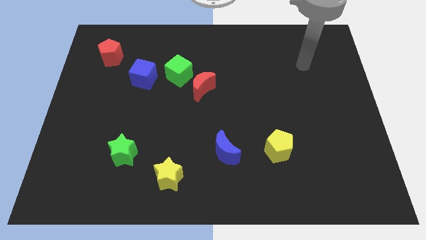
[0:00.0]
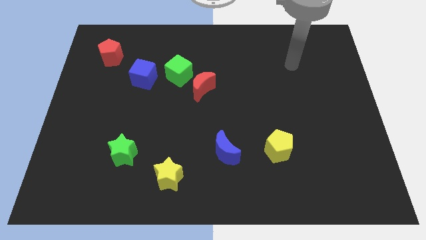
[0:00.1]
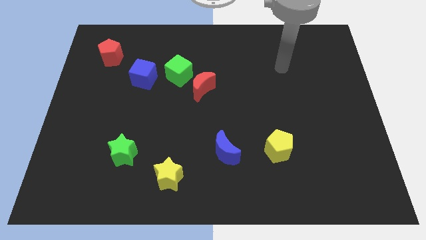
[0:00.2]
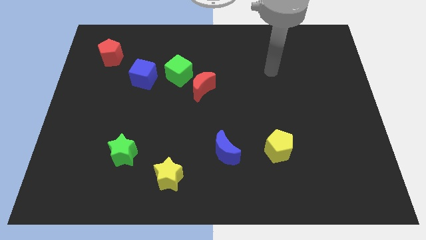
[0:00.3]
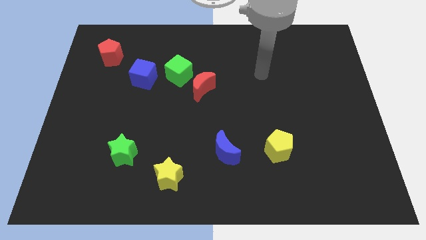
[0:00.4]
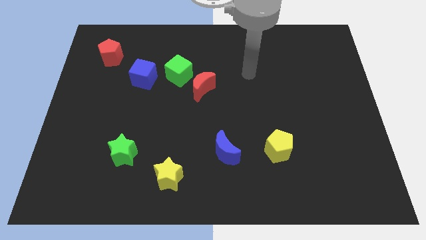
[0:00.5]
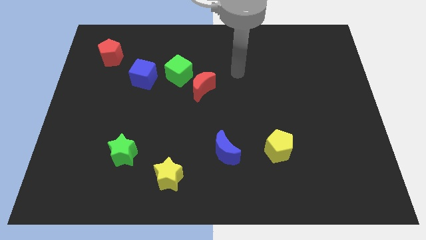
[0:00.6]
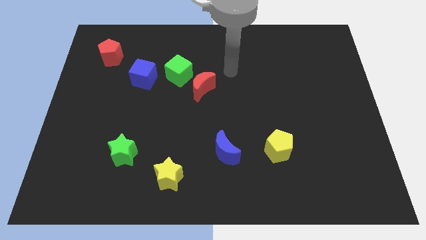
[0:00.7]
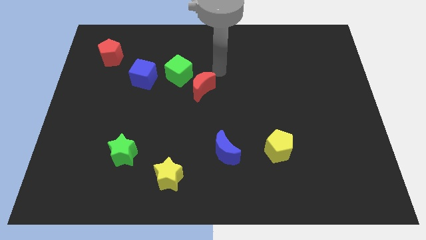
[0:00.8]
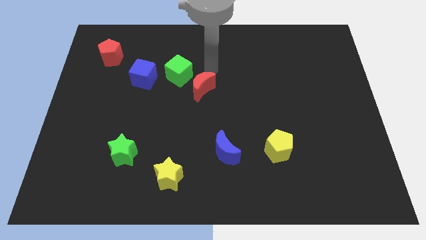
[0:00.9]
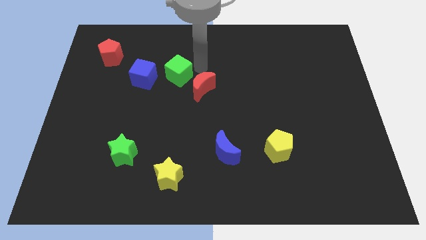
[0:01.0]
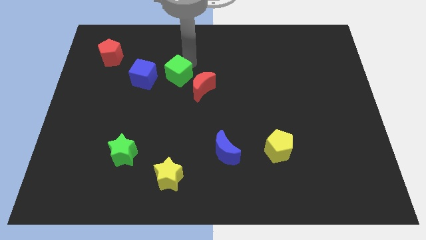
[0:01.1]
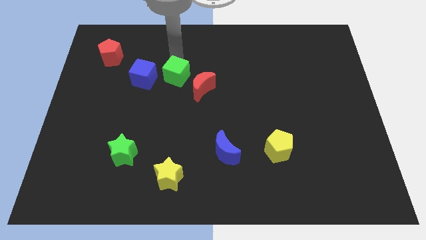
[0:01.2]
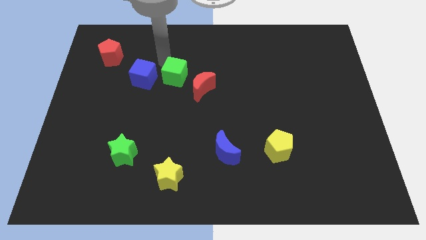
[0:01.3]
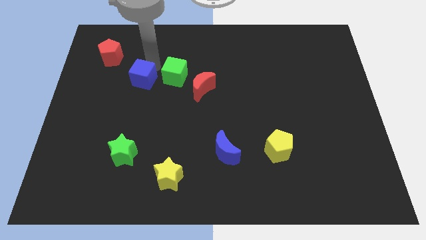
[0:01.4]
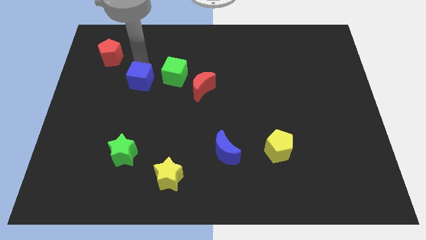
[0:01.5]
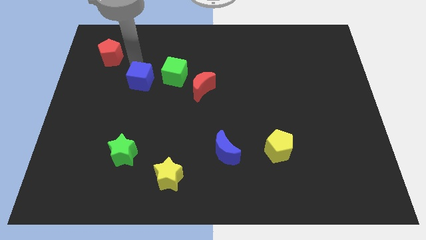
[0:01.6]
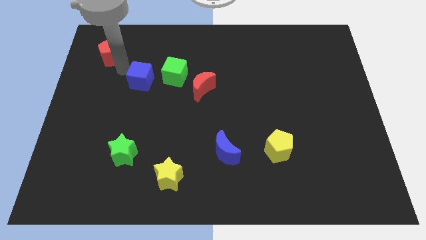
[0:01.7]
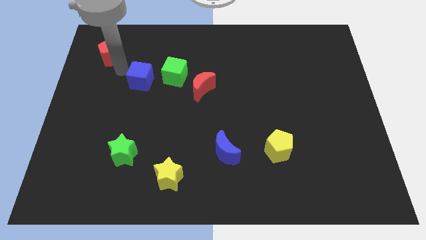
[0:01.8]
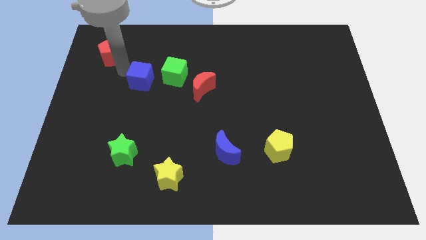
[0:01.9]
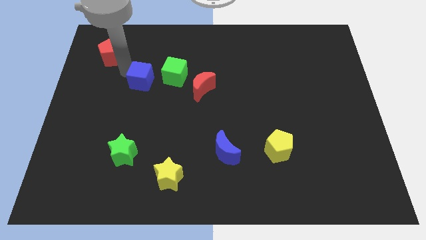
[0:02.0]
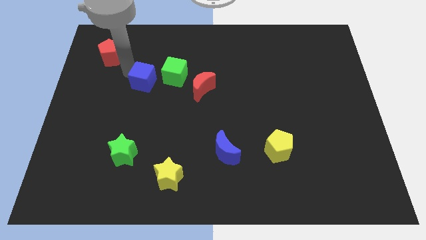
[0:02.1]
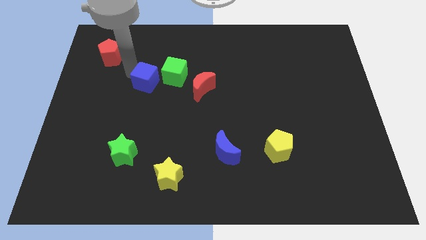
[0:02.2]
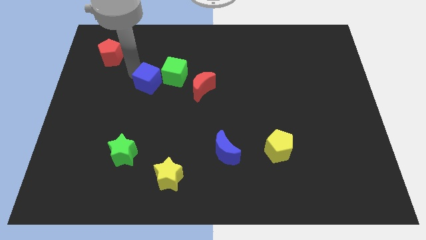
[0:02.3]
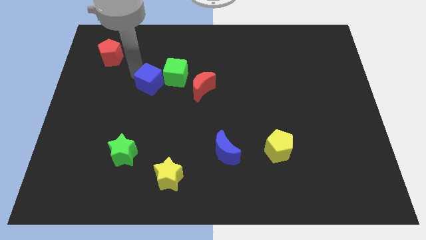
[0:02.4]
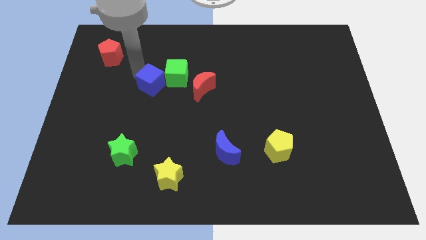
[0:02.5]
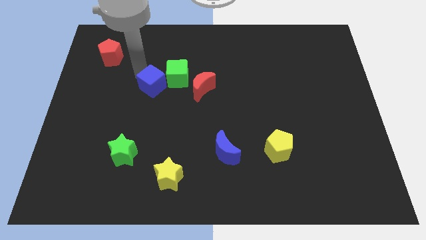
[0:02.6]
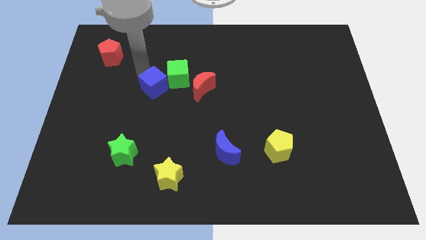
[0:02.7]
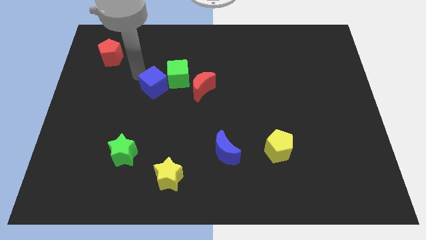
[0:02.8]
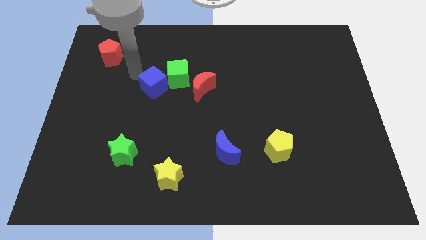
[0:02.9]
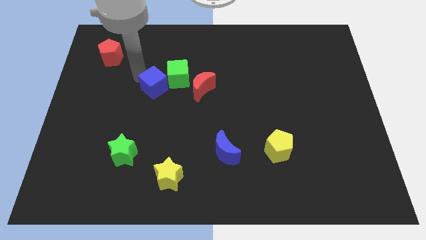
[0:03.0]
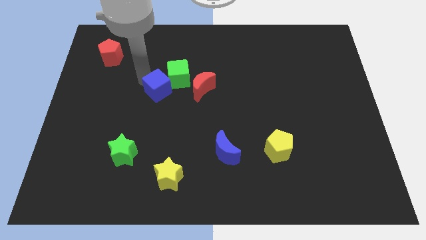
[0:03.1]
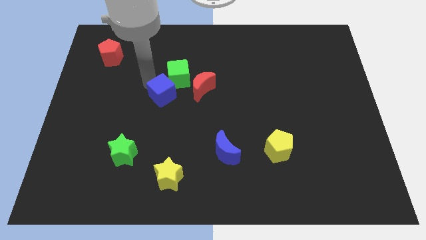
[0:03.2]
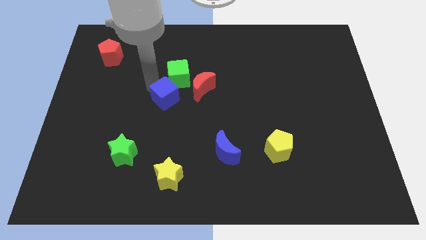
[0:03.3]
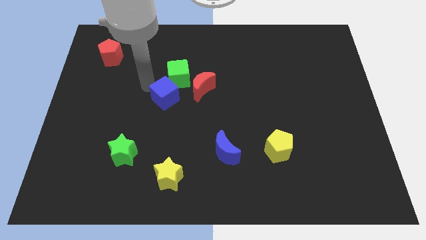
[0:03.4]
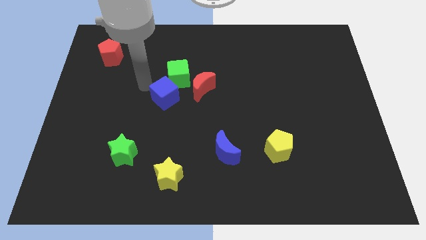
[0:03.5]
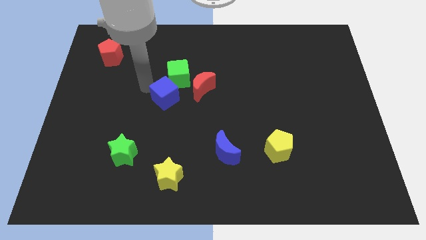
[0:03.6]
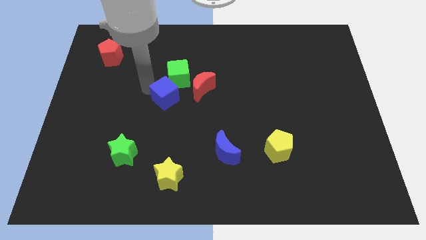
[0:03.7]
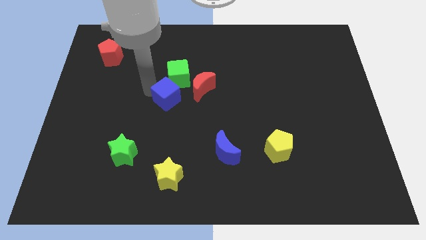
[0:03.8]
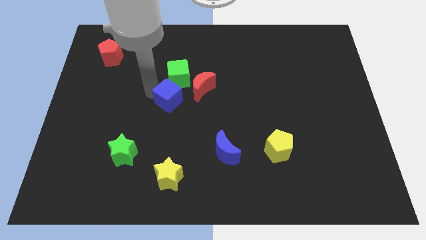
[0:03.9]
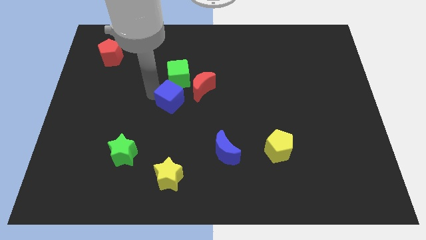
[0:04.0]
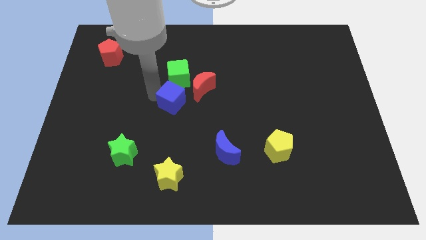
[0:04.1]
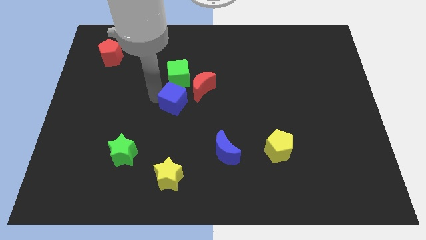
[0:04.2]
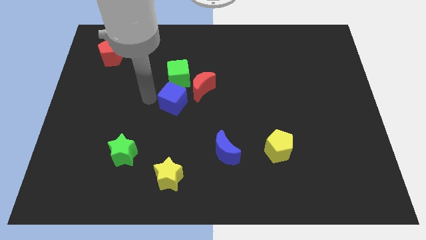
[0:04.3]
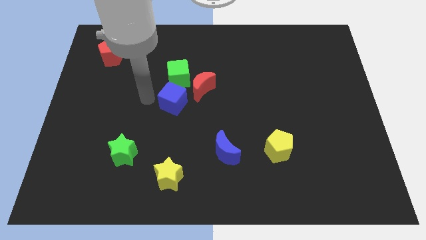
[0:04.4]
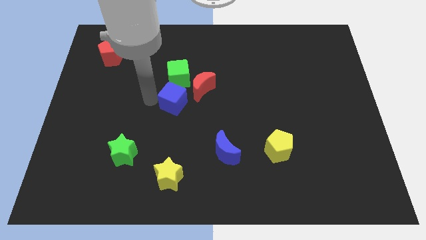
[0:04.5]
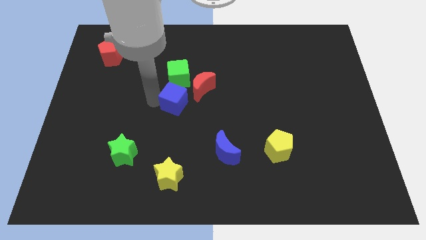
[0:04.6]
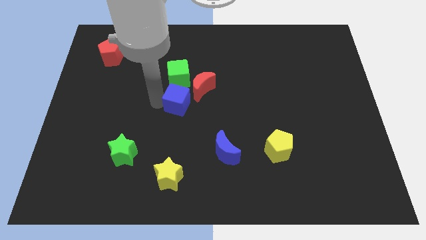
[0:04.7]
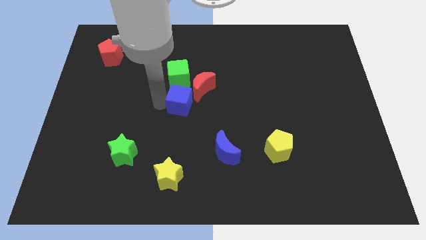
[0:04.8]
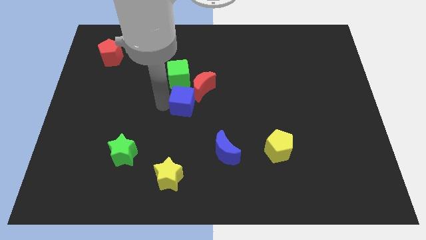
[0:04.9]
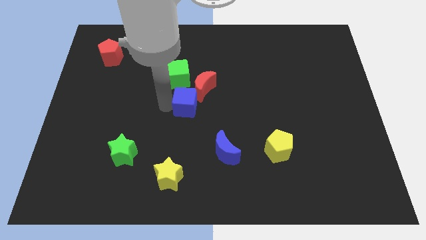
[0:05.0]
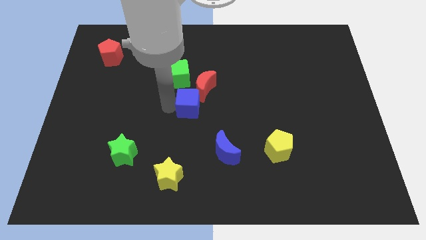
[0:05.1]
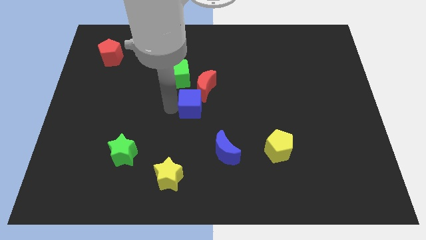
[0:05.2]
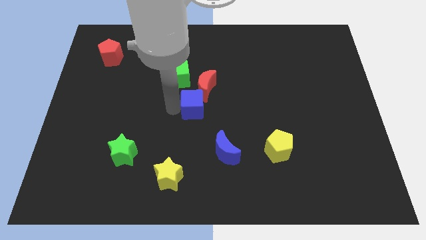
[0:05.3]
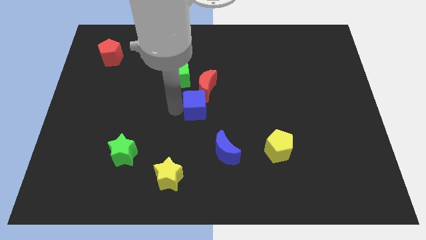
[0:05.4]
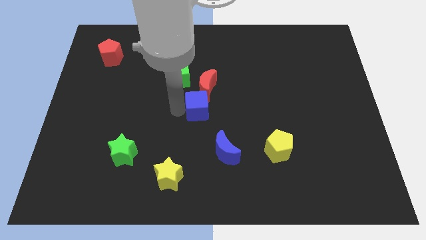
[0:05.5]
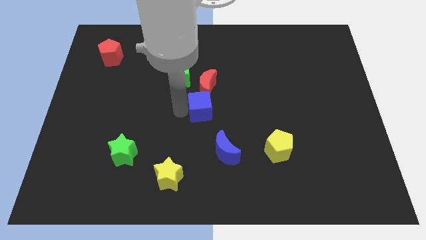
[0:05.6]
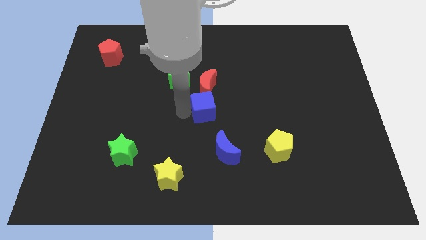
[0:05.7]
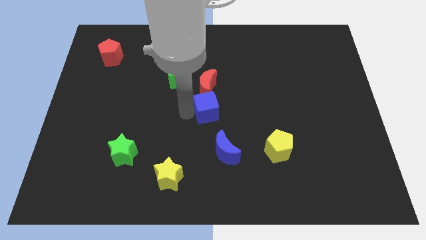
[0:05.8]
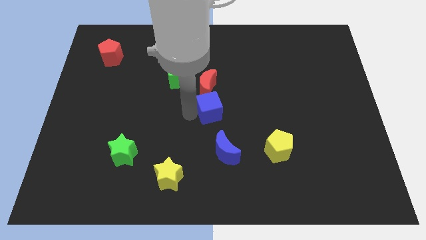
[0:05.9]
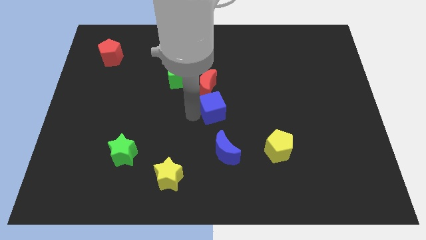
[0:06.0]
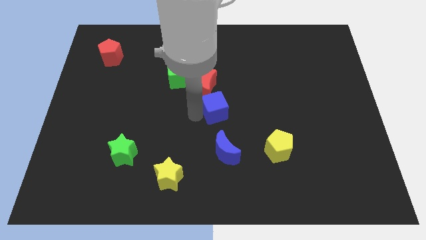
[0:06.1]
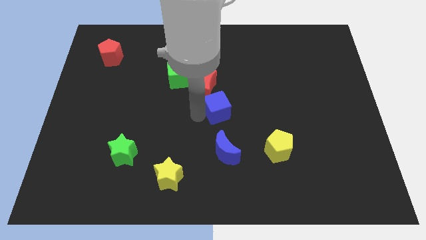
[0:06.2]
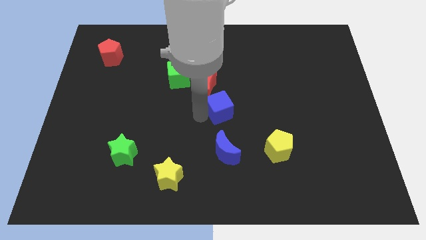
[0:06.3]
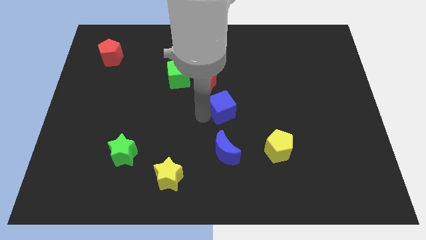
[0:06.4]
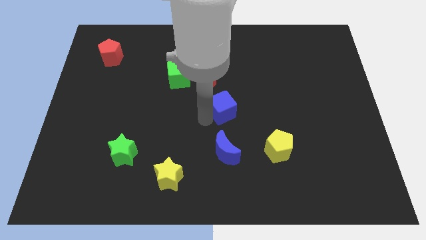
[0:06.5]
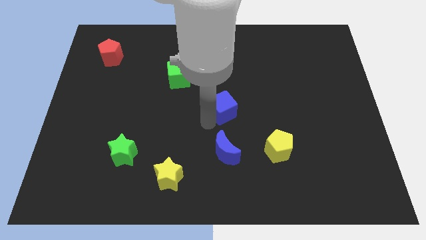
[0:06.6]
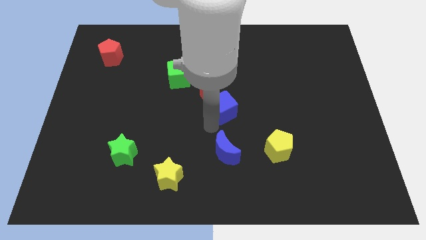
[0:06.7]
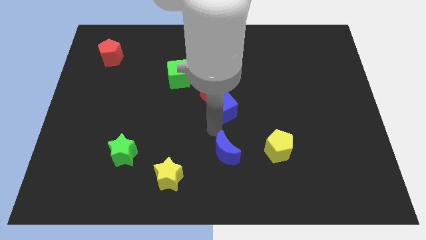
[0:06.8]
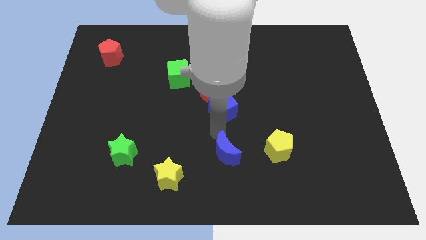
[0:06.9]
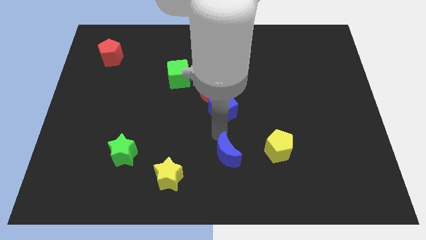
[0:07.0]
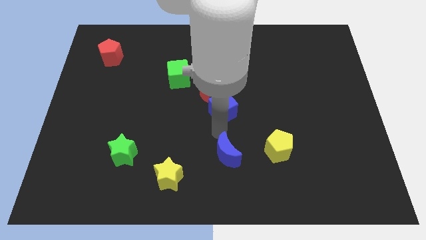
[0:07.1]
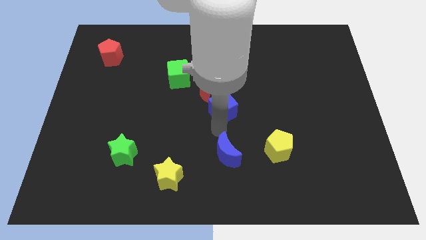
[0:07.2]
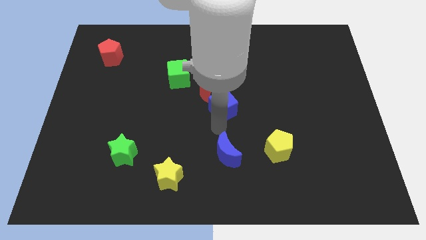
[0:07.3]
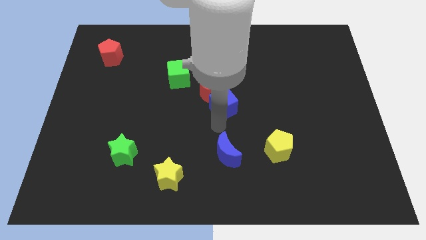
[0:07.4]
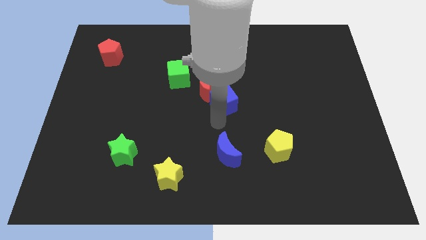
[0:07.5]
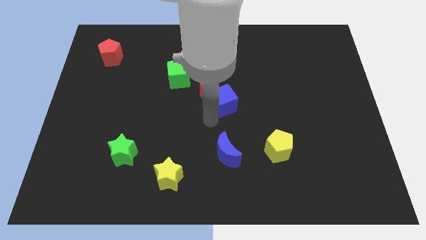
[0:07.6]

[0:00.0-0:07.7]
put the blue cube to the right side of the red moon
